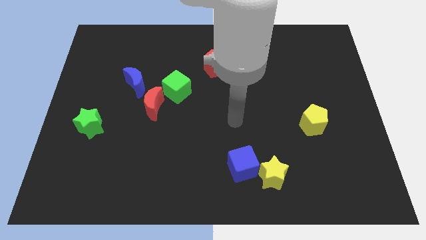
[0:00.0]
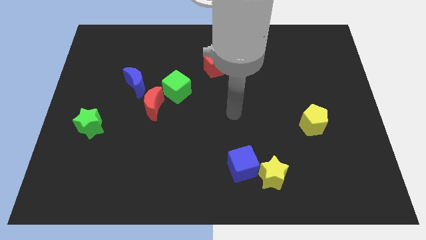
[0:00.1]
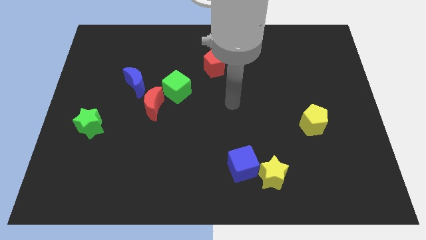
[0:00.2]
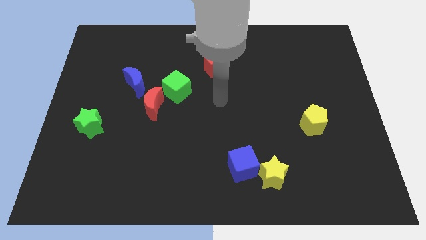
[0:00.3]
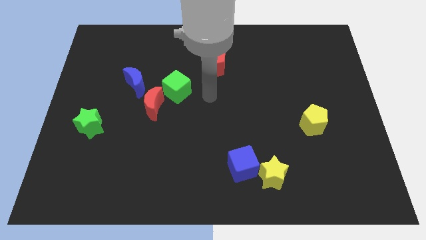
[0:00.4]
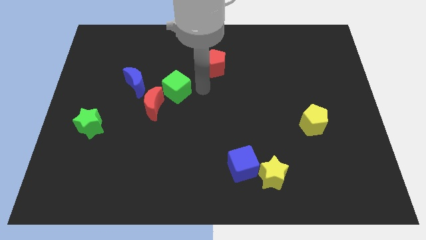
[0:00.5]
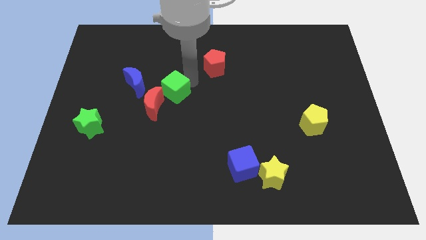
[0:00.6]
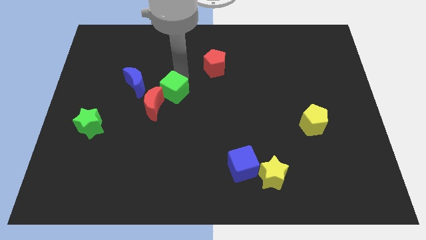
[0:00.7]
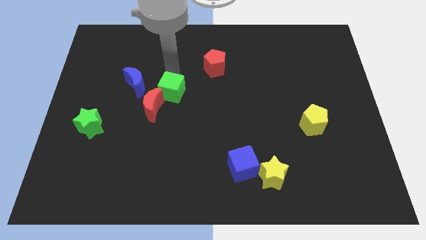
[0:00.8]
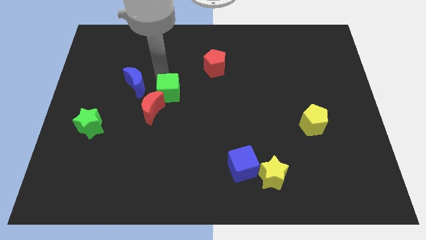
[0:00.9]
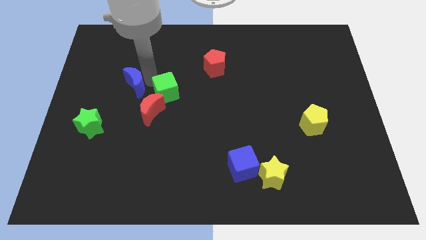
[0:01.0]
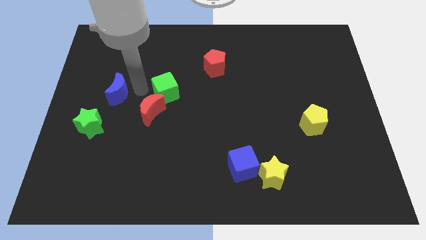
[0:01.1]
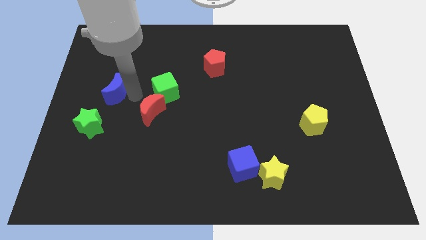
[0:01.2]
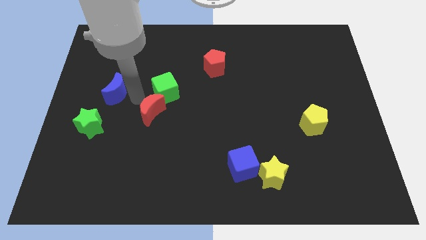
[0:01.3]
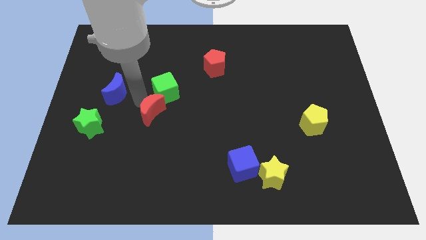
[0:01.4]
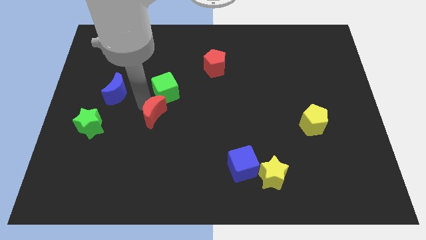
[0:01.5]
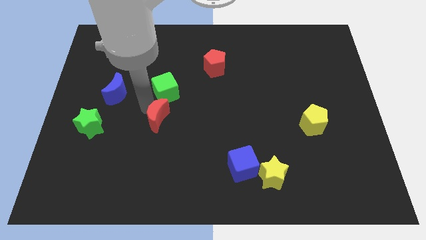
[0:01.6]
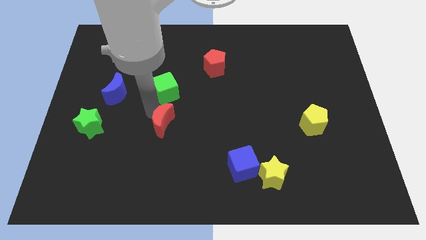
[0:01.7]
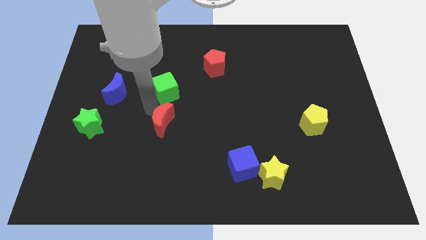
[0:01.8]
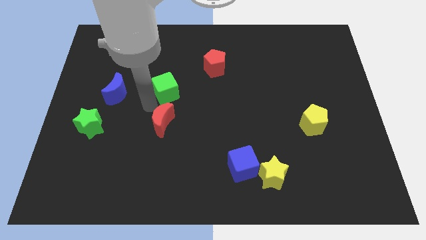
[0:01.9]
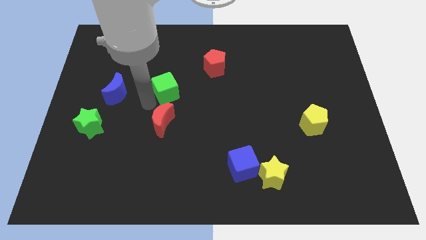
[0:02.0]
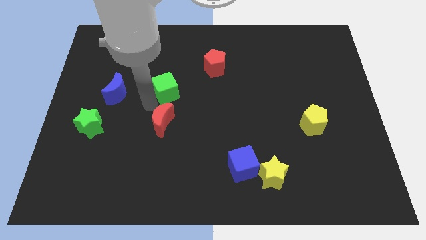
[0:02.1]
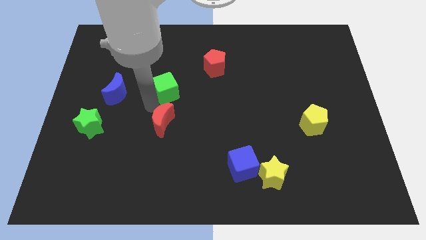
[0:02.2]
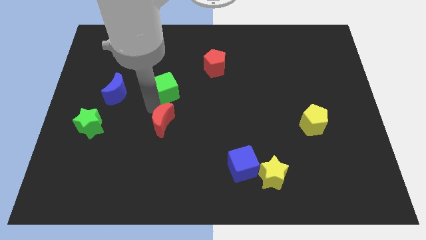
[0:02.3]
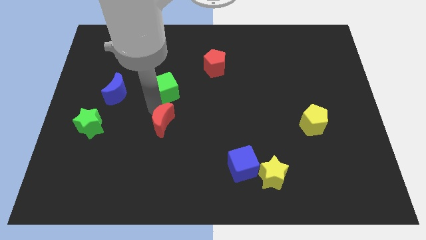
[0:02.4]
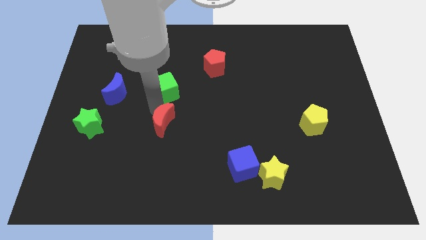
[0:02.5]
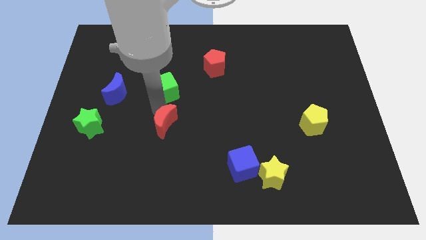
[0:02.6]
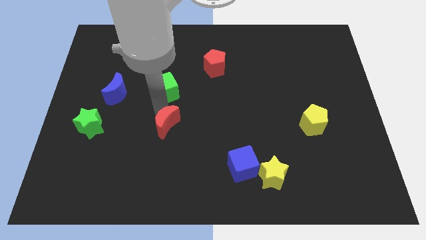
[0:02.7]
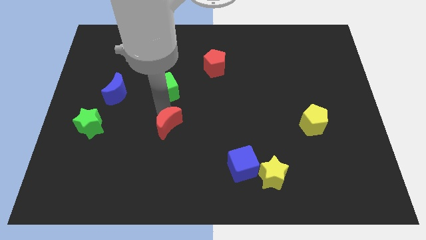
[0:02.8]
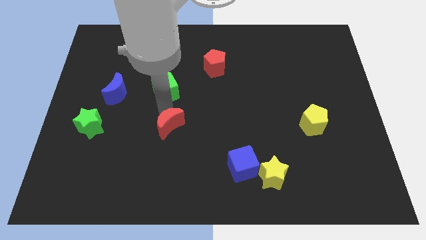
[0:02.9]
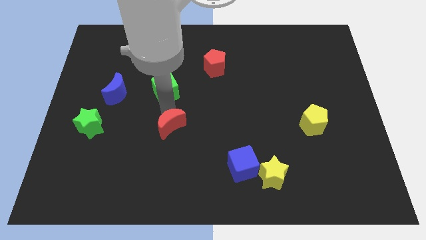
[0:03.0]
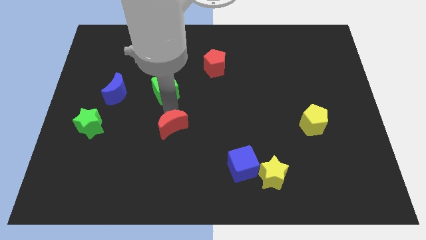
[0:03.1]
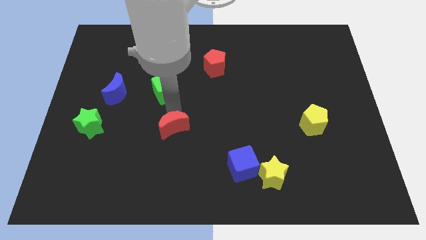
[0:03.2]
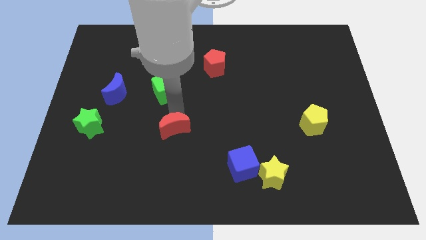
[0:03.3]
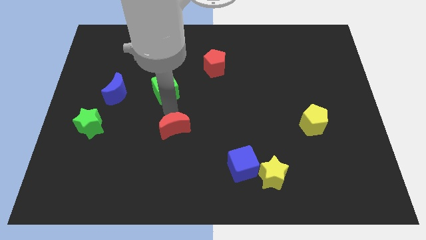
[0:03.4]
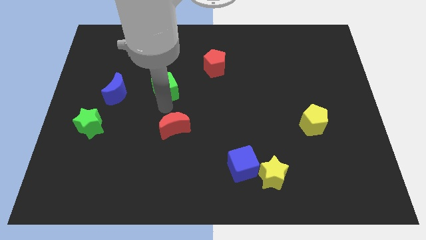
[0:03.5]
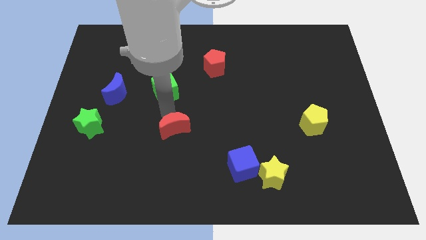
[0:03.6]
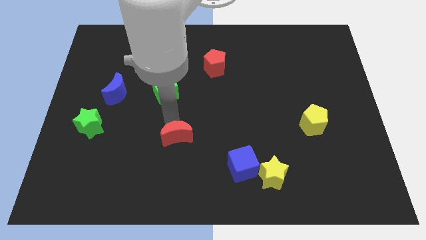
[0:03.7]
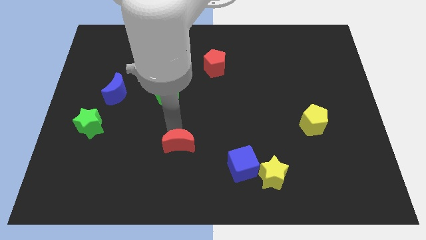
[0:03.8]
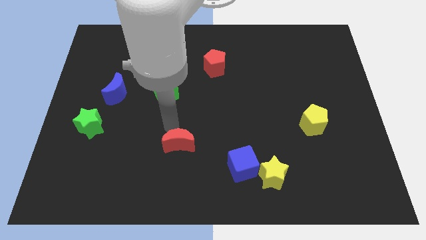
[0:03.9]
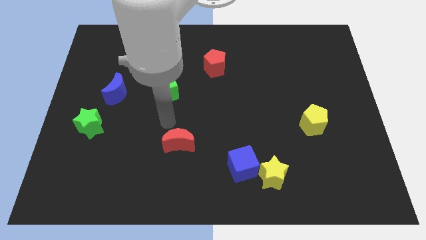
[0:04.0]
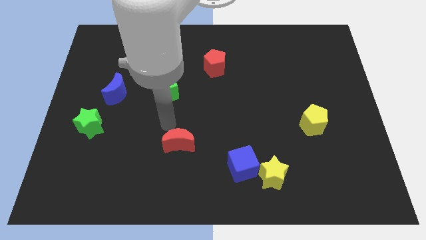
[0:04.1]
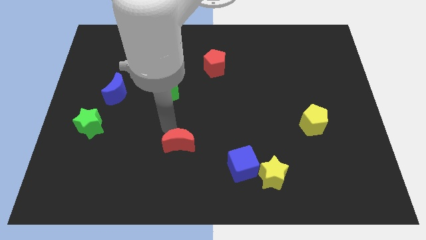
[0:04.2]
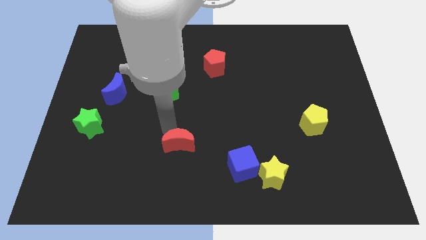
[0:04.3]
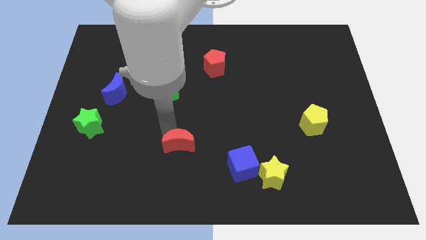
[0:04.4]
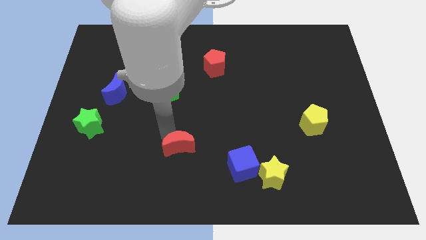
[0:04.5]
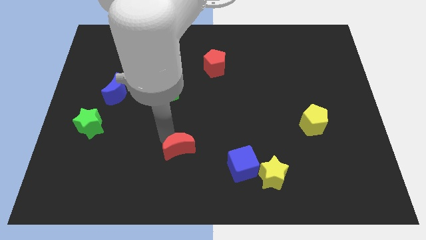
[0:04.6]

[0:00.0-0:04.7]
slide the red moon left of the blue cube

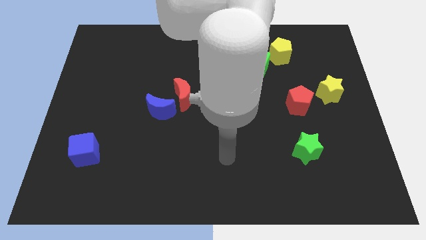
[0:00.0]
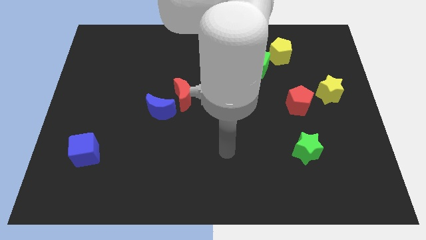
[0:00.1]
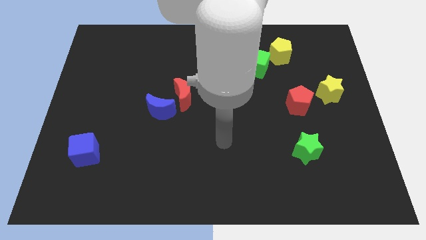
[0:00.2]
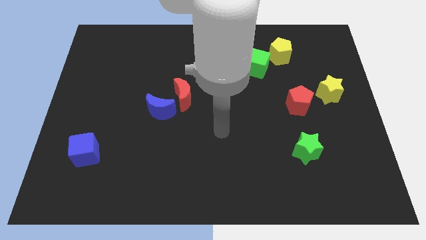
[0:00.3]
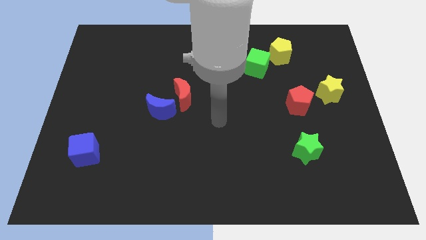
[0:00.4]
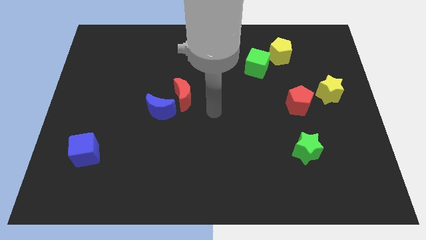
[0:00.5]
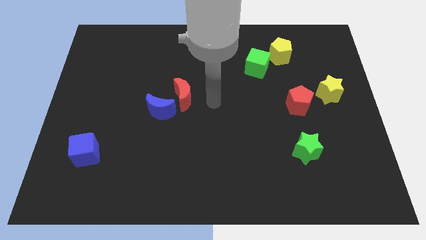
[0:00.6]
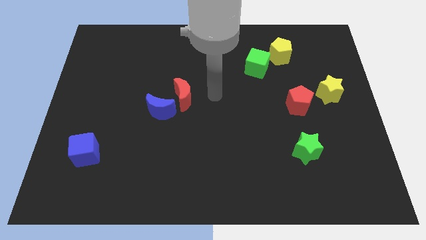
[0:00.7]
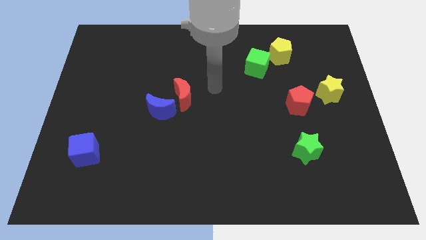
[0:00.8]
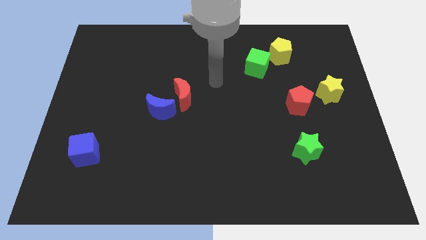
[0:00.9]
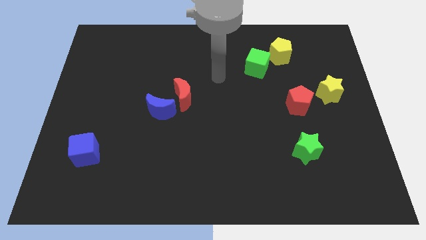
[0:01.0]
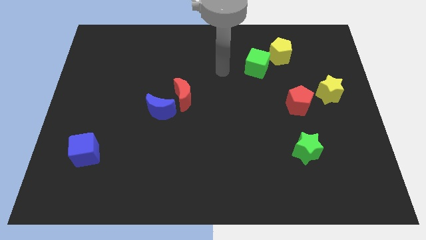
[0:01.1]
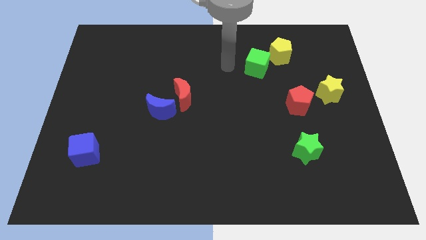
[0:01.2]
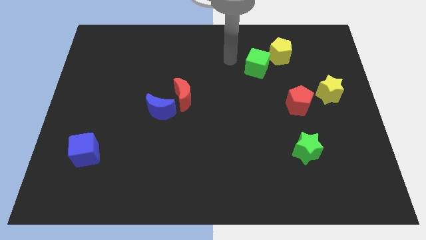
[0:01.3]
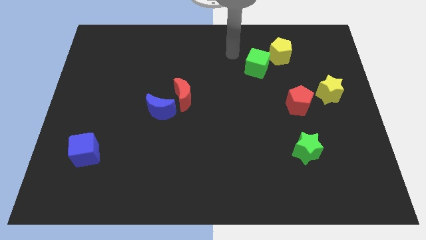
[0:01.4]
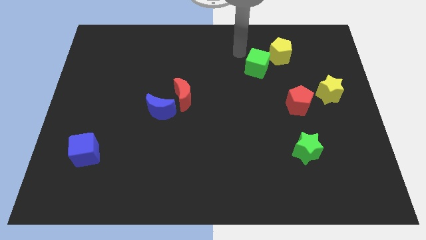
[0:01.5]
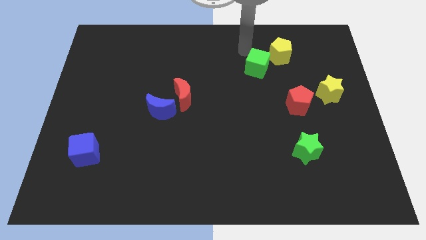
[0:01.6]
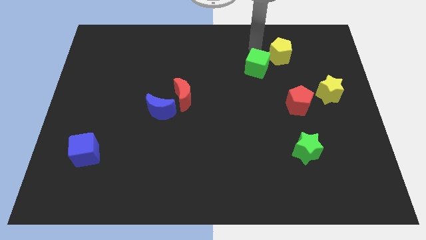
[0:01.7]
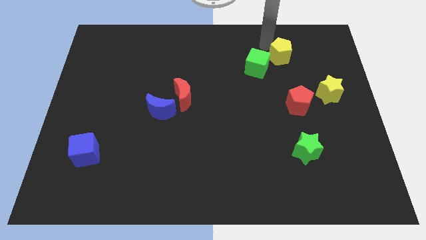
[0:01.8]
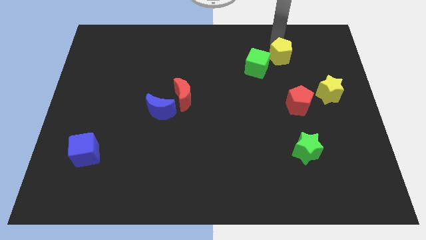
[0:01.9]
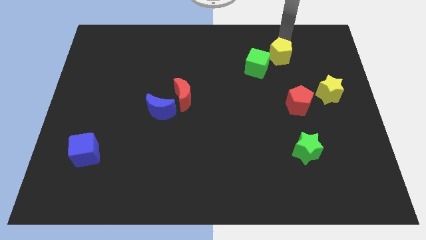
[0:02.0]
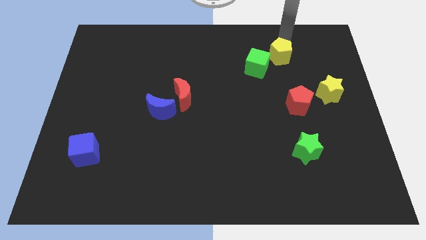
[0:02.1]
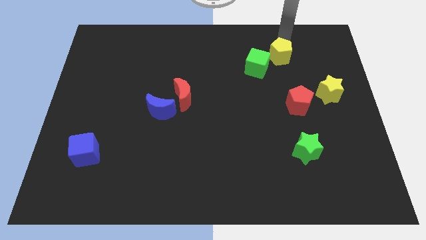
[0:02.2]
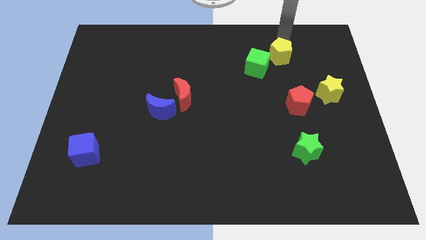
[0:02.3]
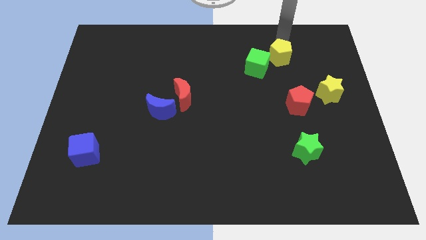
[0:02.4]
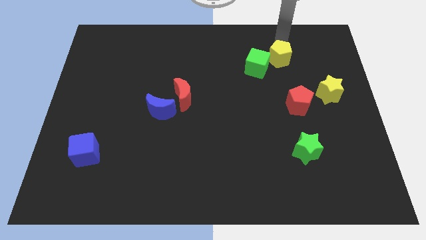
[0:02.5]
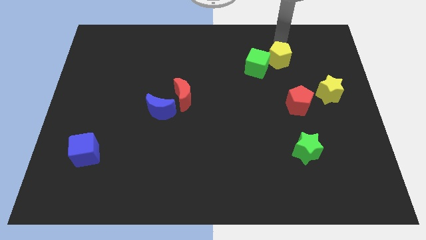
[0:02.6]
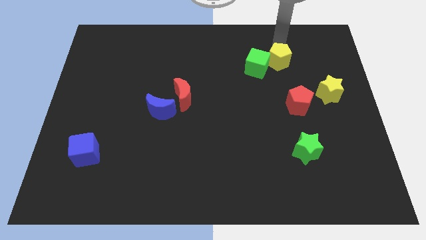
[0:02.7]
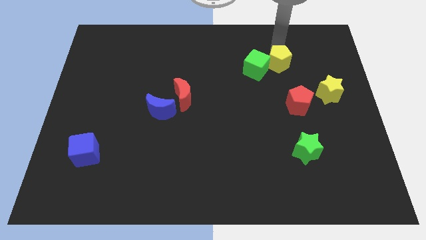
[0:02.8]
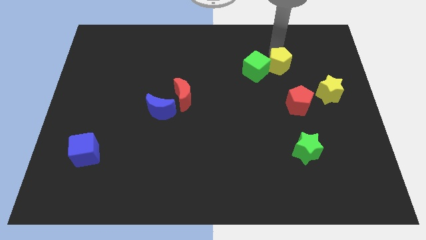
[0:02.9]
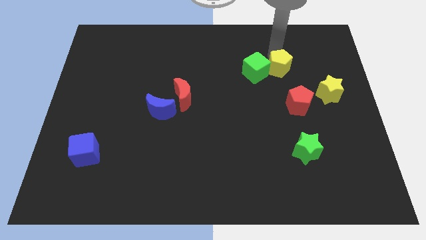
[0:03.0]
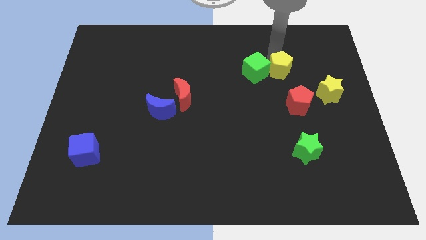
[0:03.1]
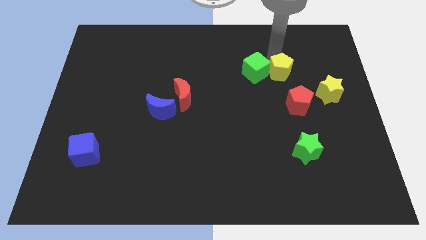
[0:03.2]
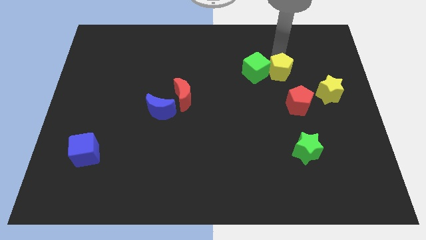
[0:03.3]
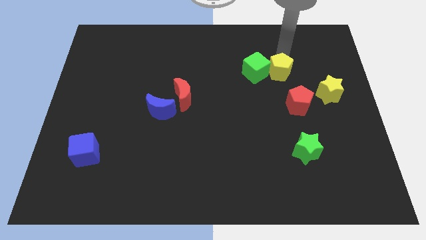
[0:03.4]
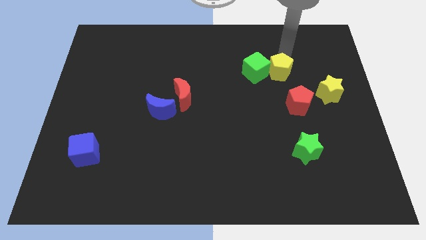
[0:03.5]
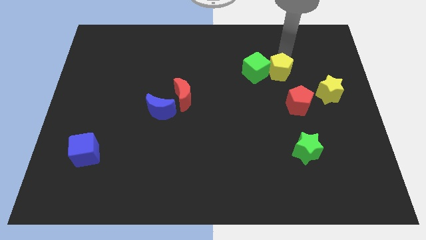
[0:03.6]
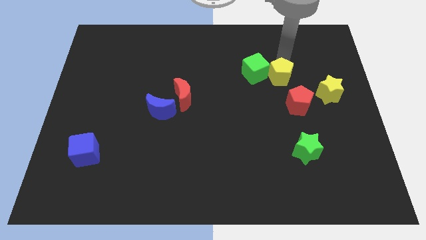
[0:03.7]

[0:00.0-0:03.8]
slide the yellow pentagon to the top left of the red pentagon
